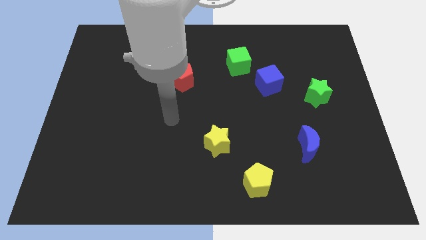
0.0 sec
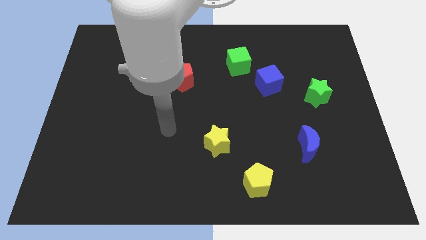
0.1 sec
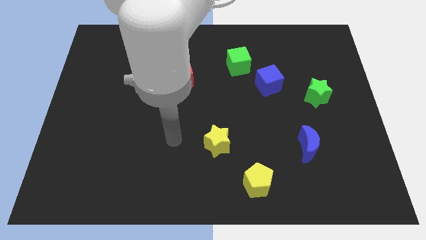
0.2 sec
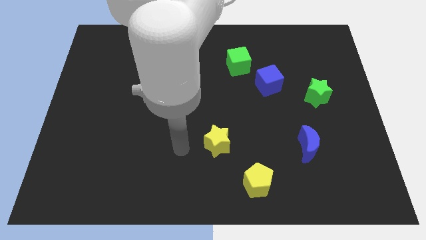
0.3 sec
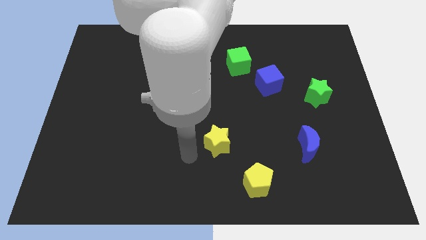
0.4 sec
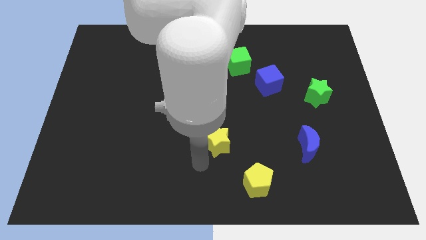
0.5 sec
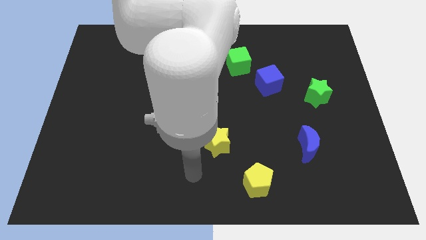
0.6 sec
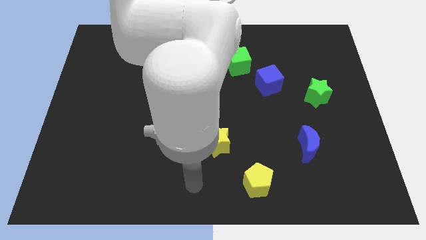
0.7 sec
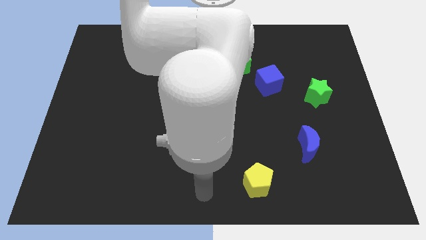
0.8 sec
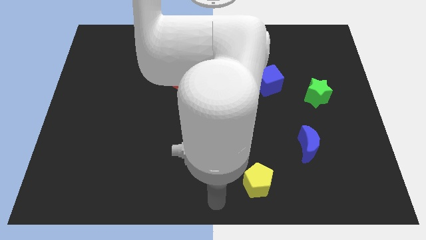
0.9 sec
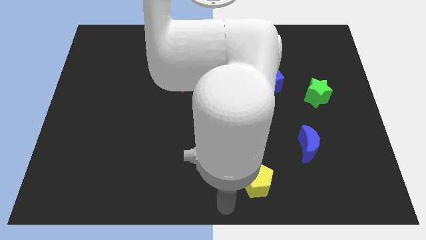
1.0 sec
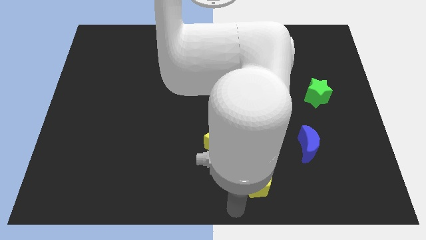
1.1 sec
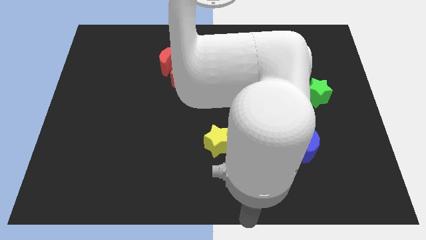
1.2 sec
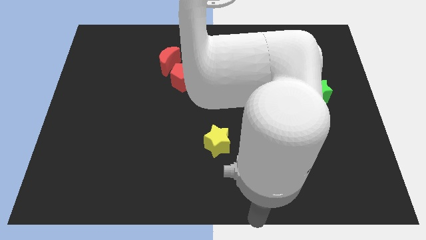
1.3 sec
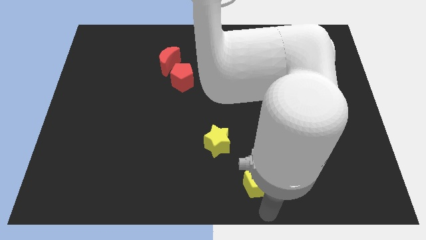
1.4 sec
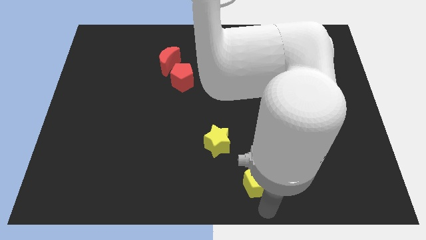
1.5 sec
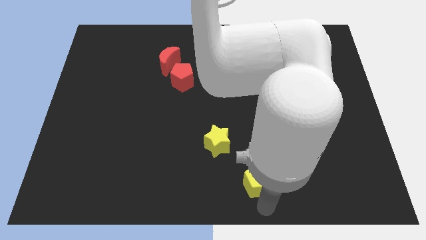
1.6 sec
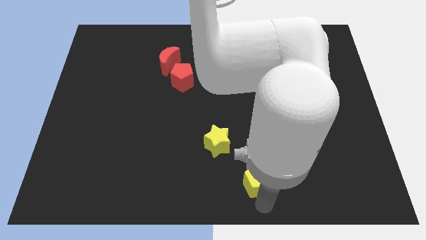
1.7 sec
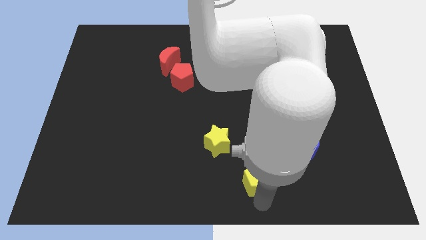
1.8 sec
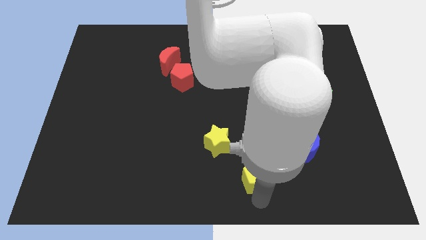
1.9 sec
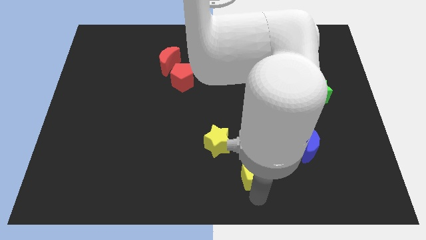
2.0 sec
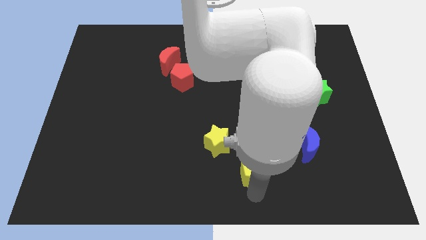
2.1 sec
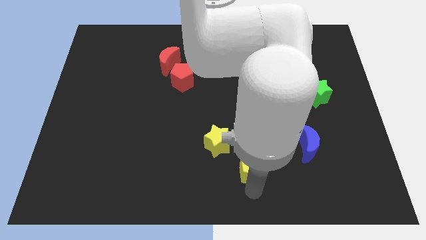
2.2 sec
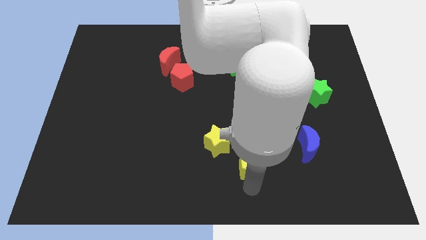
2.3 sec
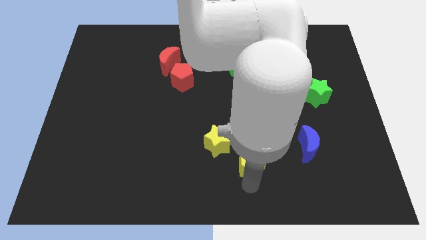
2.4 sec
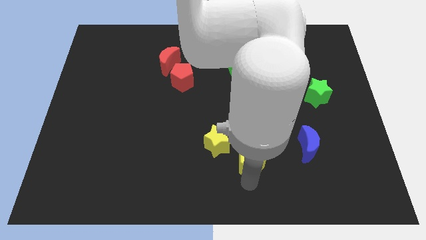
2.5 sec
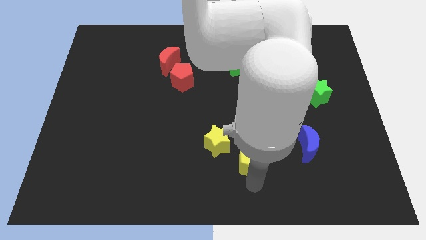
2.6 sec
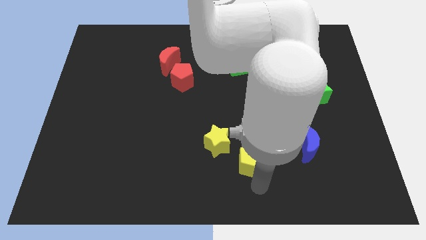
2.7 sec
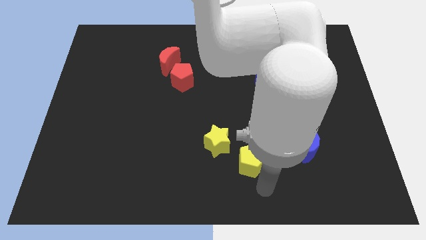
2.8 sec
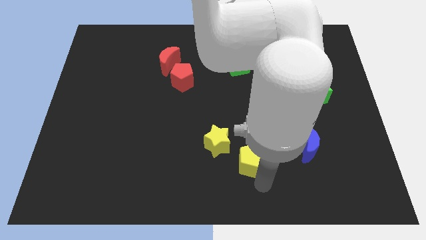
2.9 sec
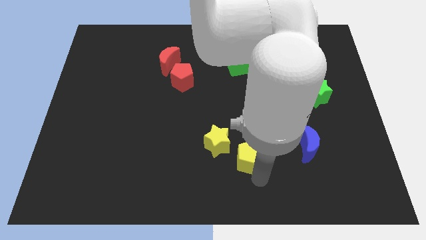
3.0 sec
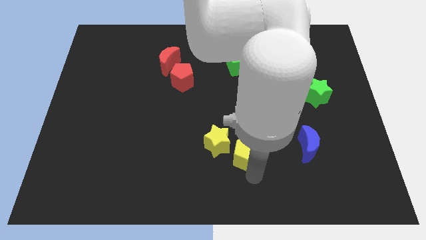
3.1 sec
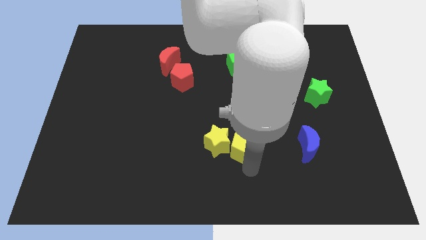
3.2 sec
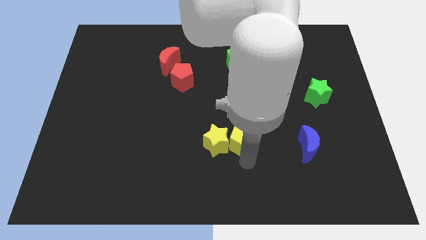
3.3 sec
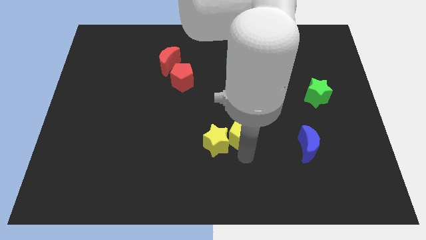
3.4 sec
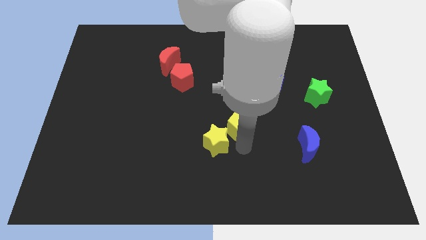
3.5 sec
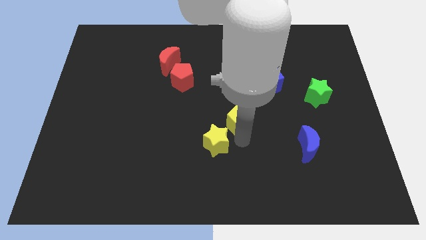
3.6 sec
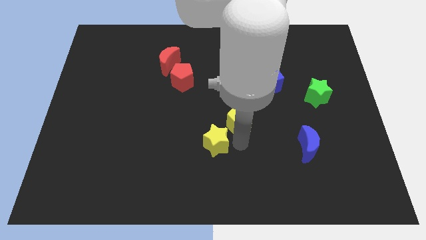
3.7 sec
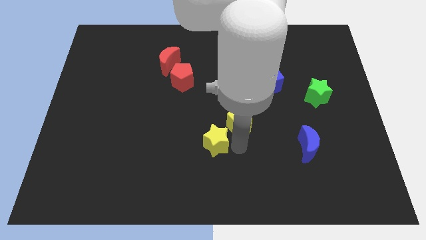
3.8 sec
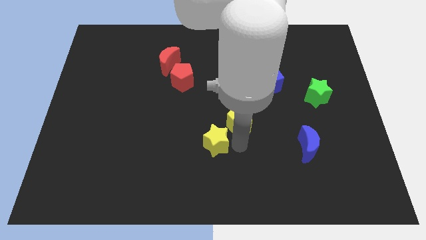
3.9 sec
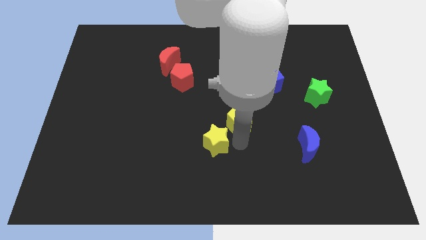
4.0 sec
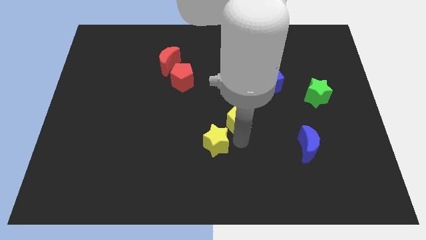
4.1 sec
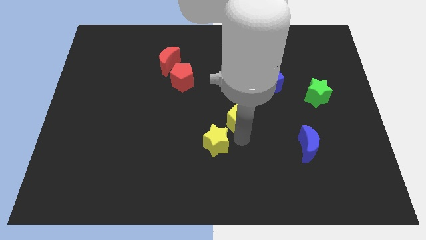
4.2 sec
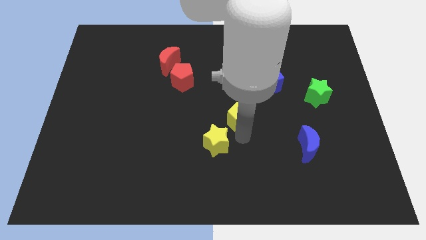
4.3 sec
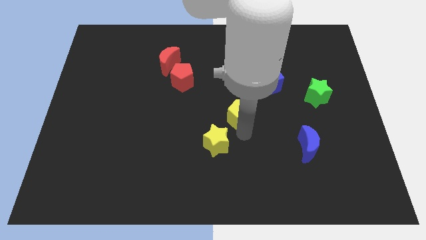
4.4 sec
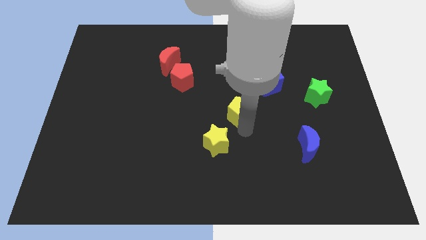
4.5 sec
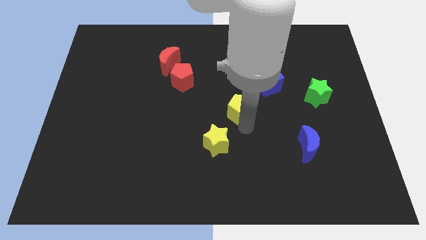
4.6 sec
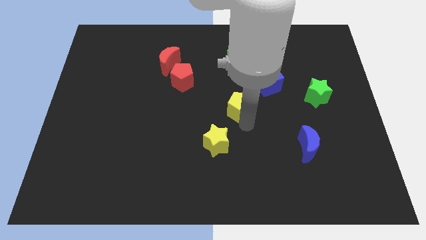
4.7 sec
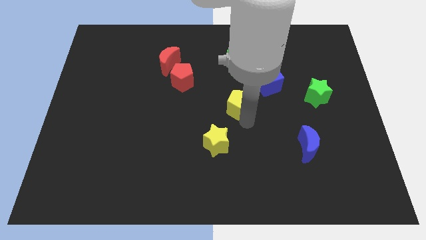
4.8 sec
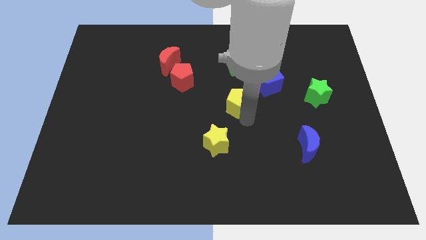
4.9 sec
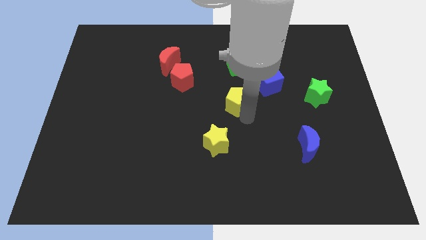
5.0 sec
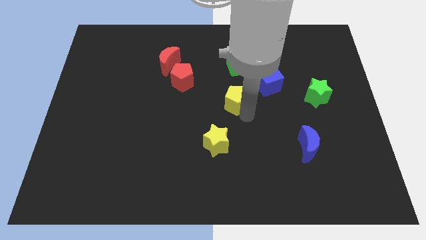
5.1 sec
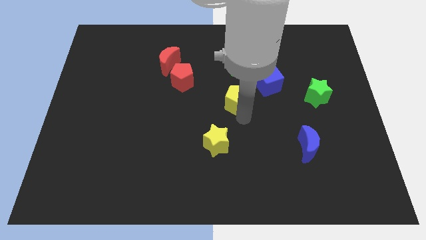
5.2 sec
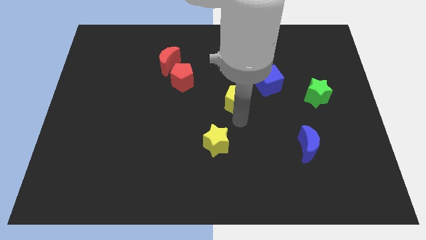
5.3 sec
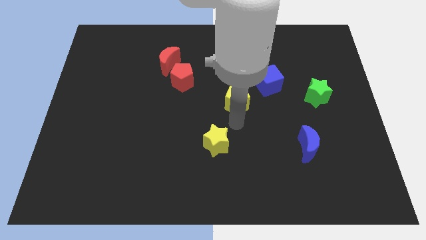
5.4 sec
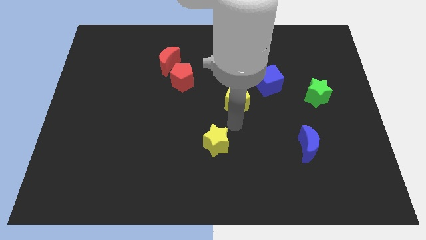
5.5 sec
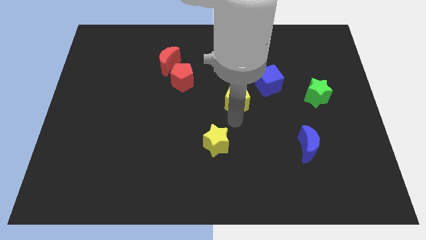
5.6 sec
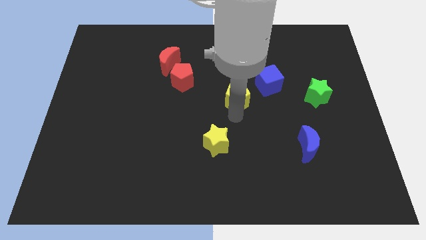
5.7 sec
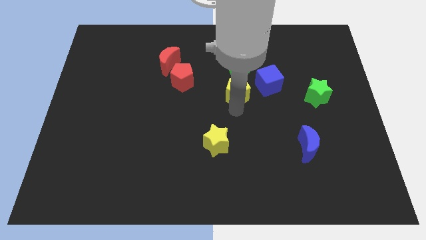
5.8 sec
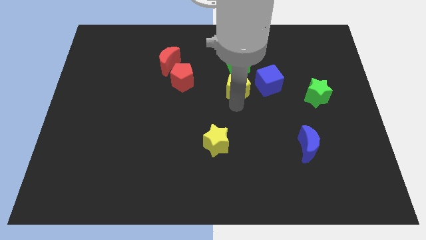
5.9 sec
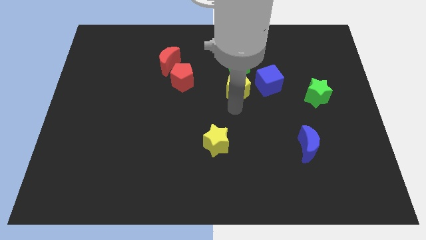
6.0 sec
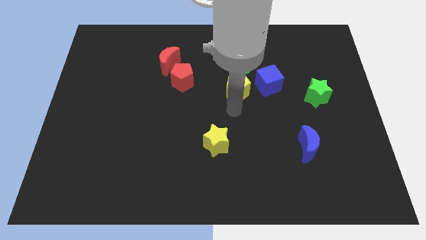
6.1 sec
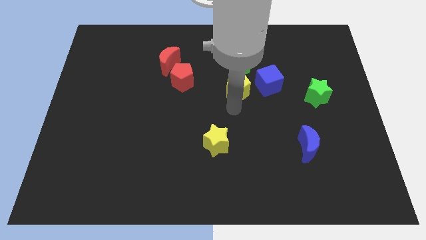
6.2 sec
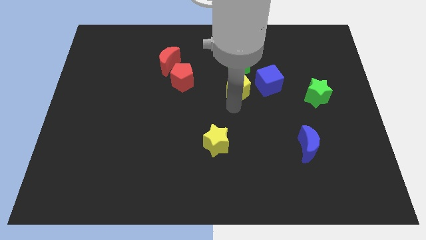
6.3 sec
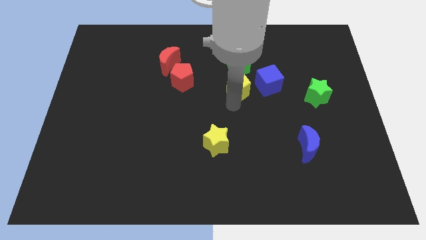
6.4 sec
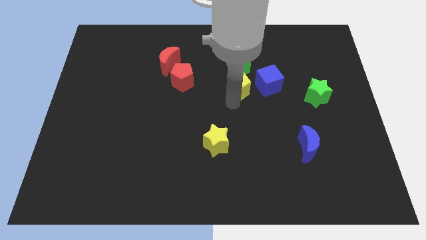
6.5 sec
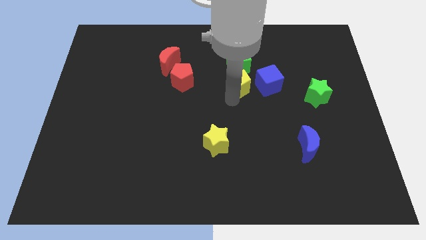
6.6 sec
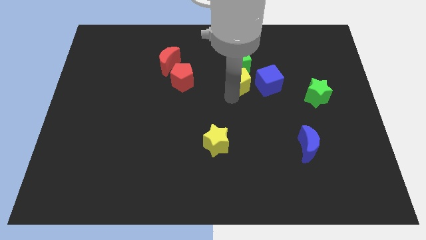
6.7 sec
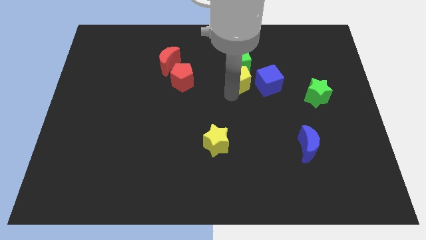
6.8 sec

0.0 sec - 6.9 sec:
move the yellow pentagon close to the green cube
